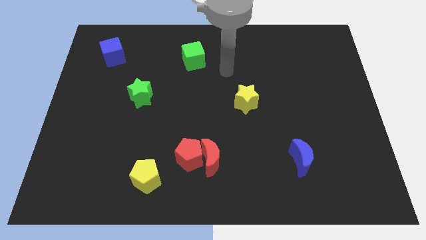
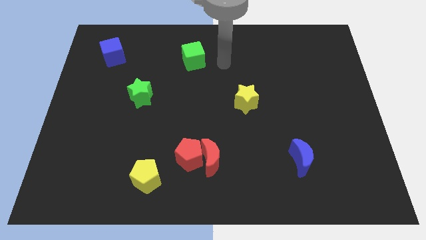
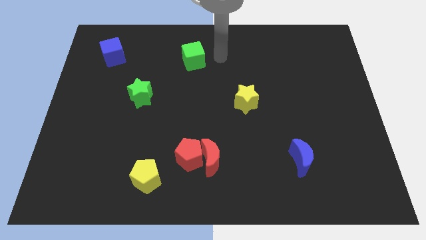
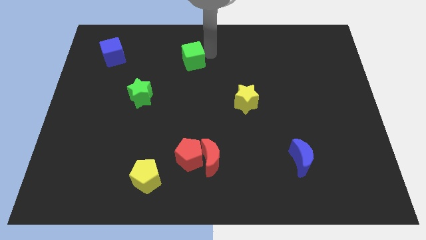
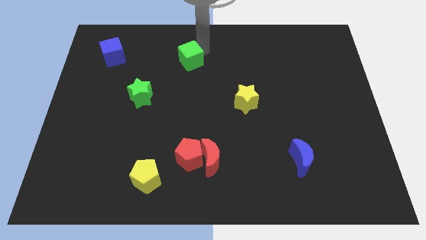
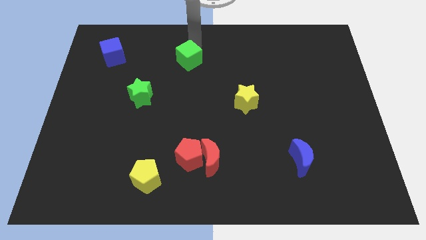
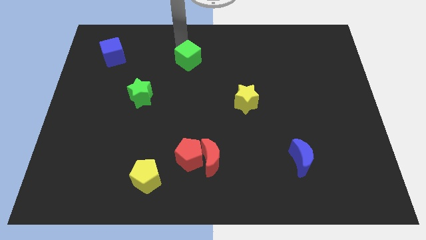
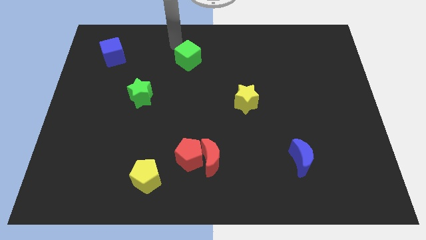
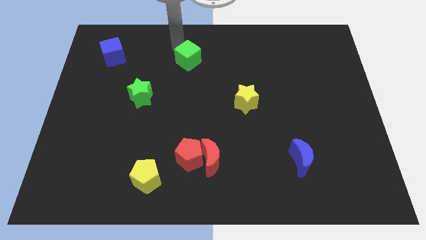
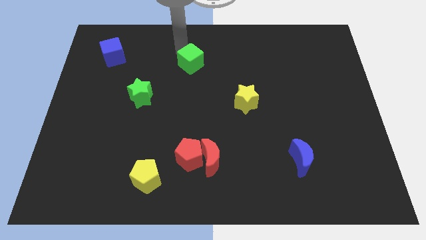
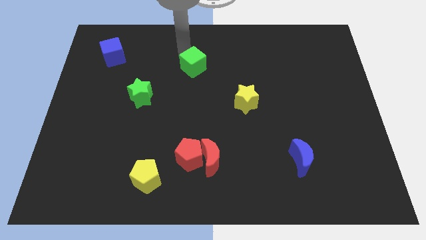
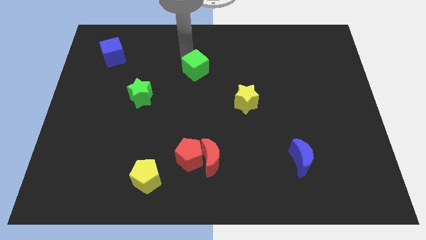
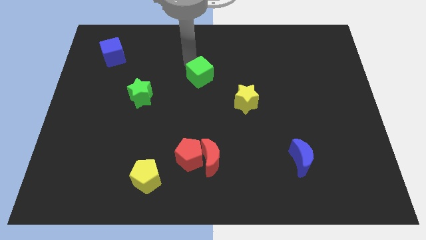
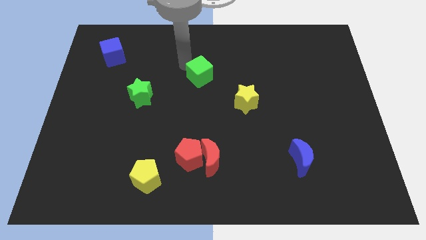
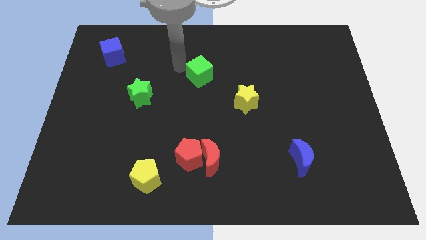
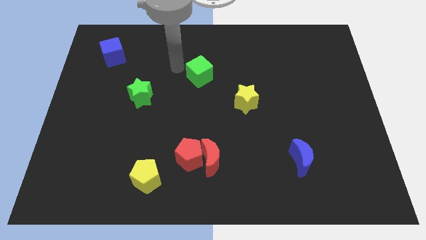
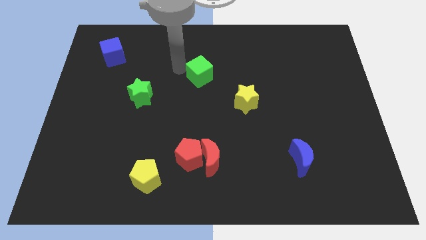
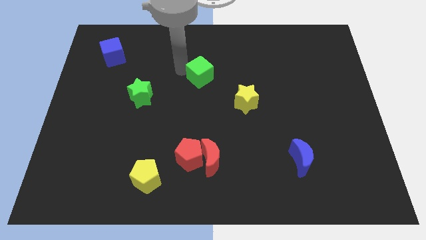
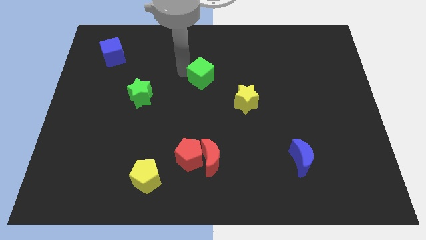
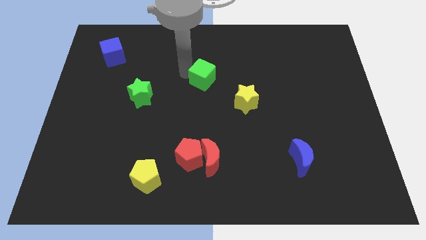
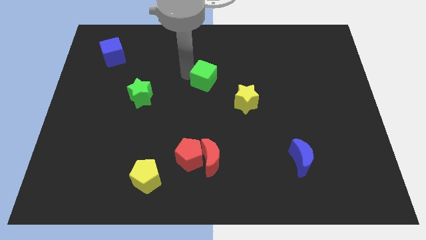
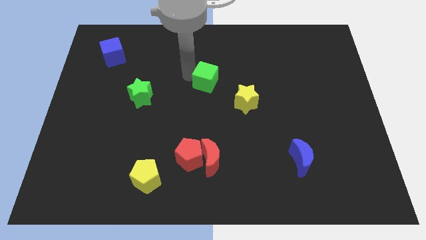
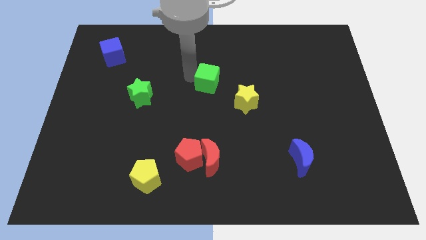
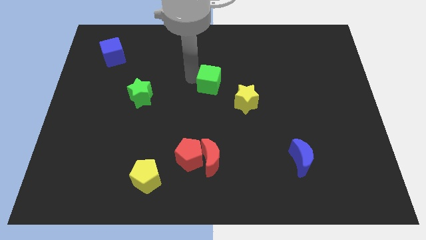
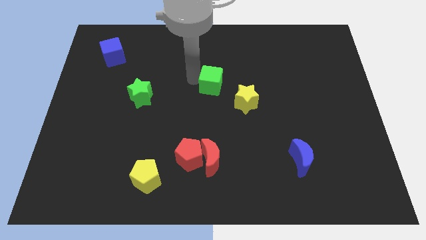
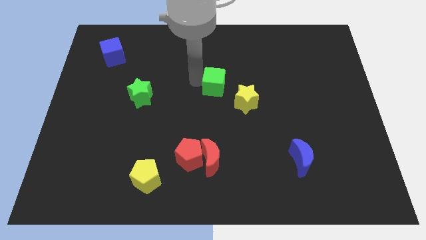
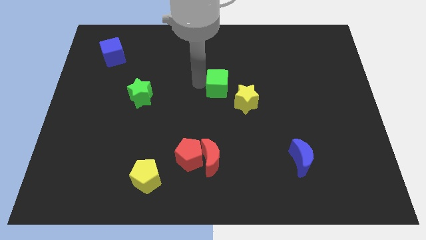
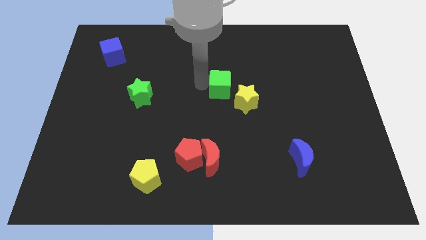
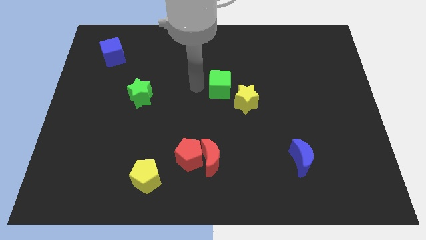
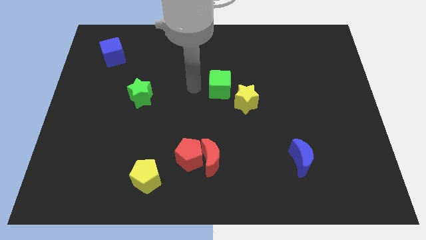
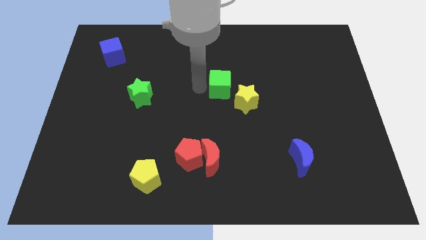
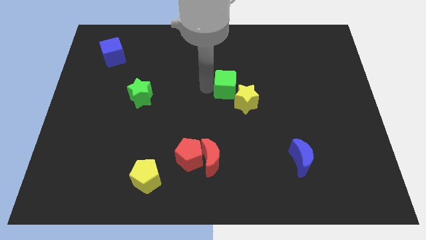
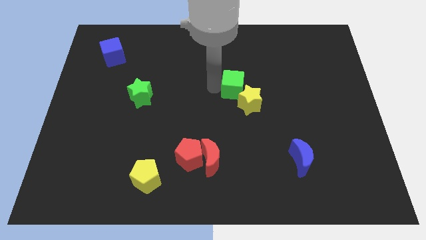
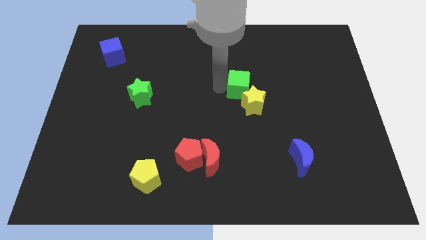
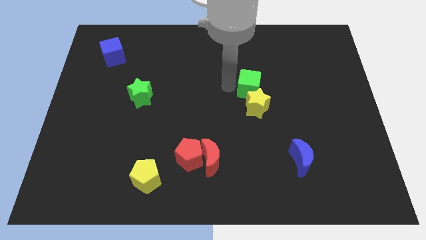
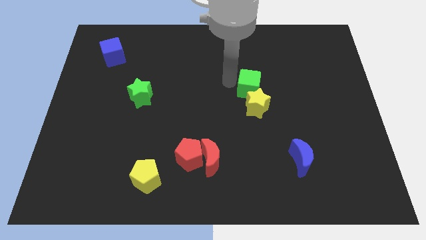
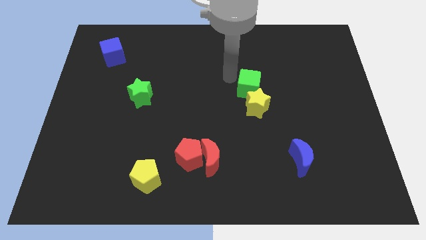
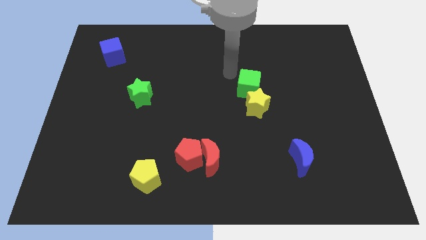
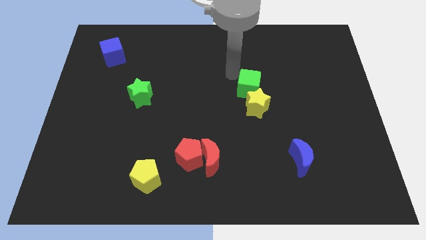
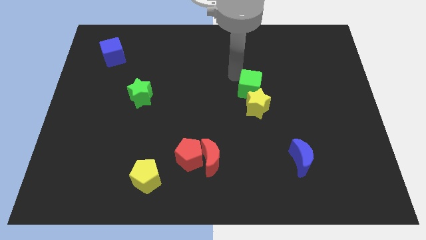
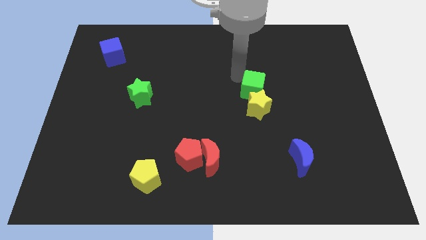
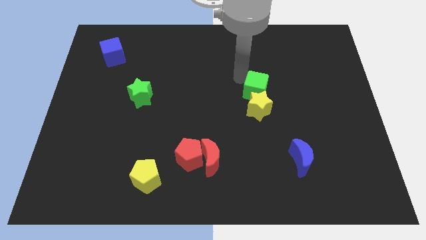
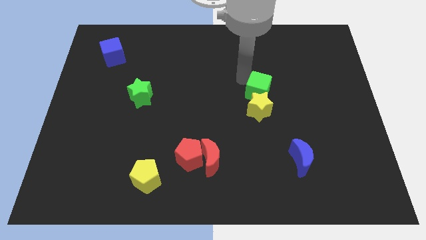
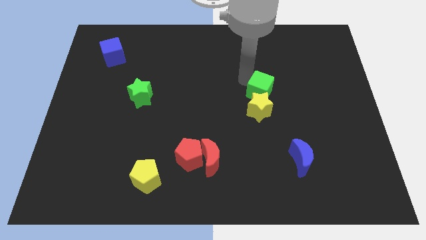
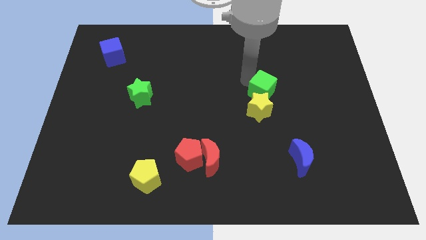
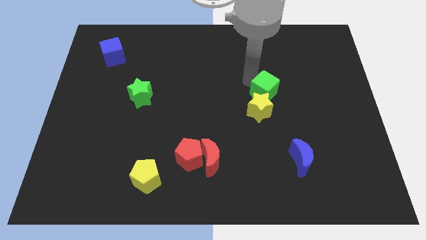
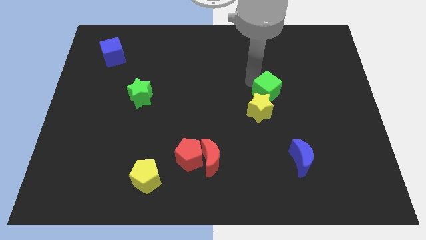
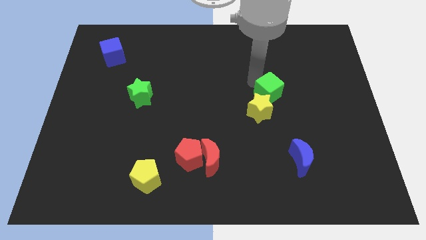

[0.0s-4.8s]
slide the green cube down and then to the right

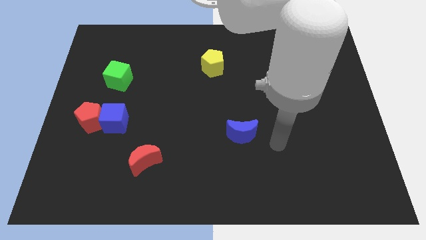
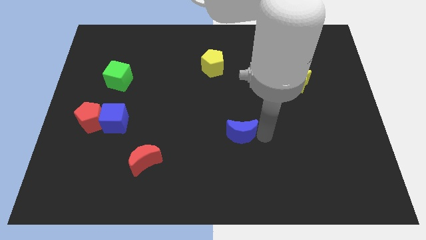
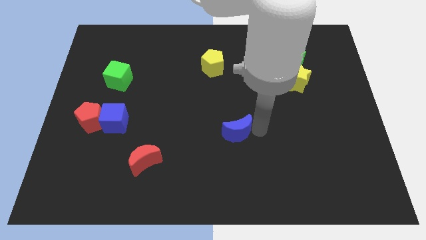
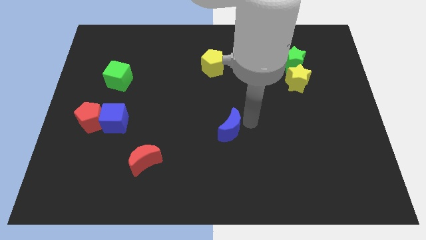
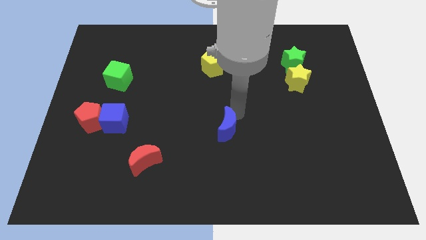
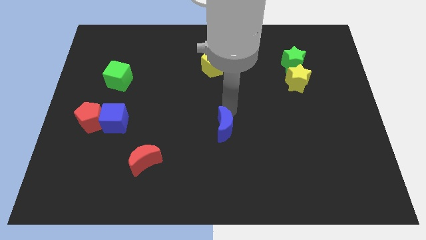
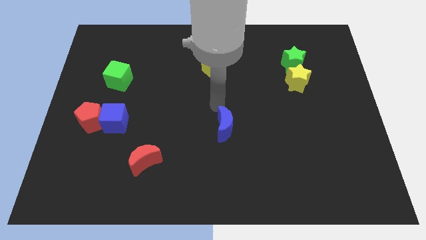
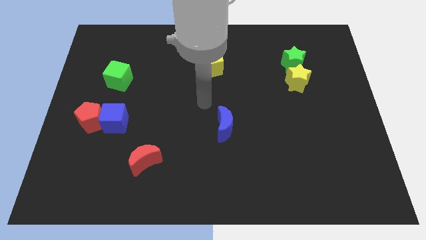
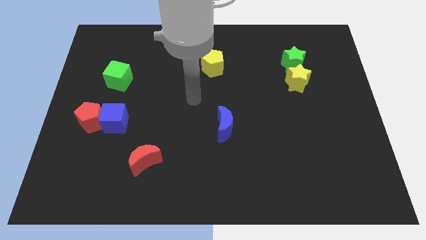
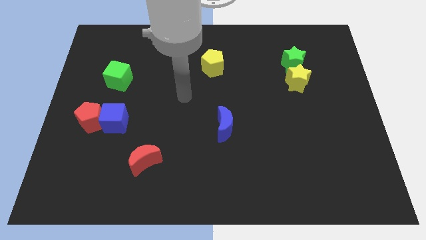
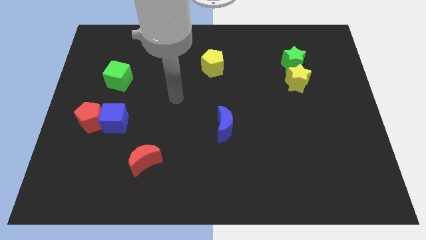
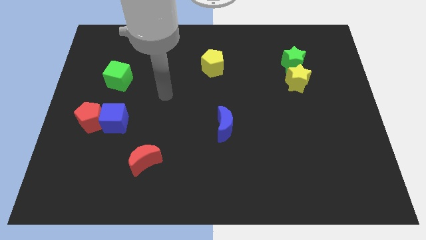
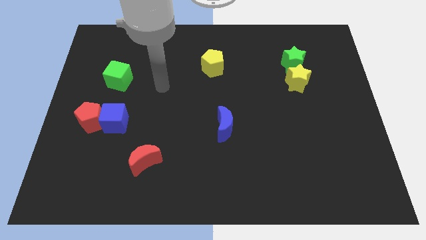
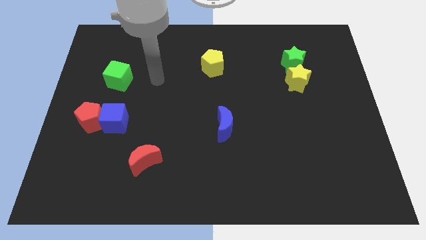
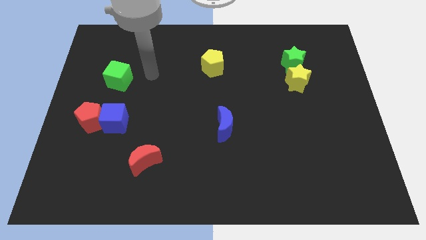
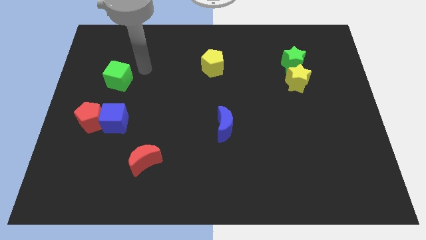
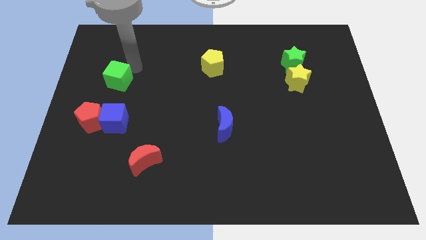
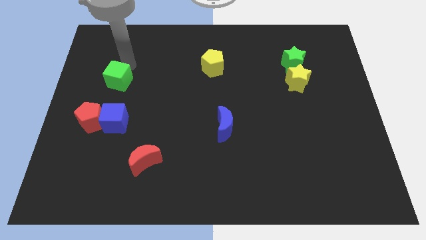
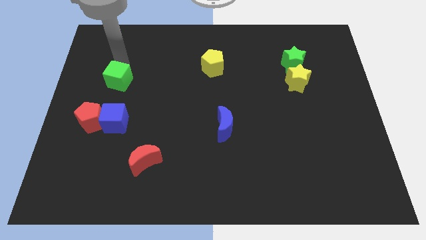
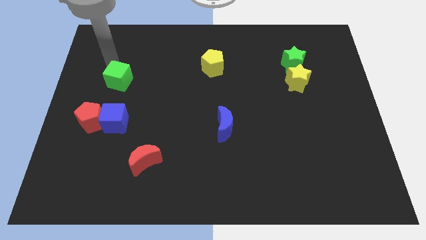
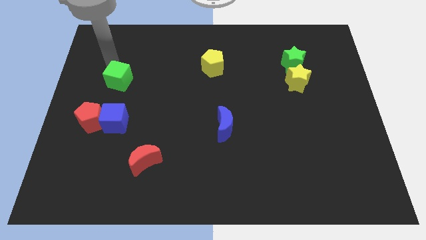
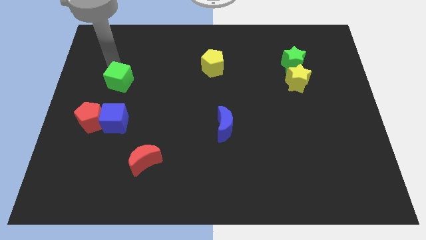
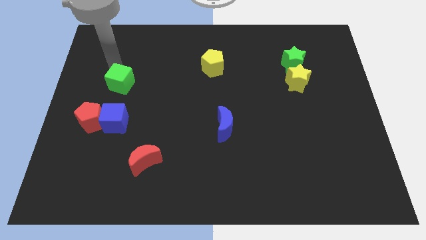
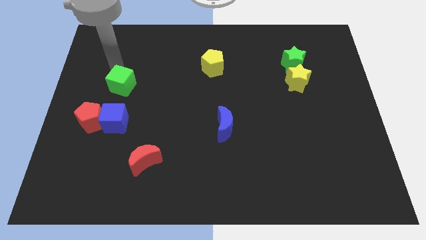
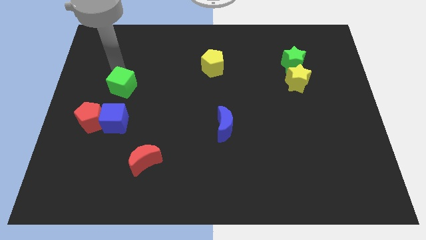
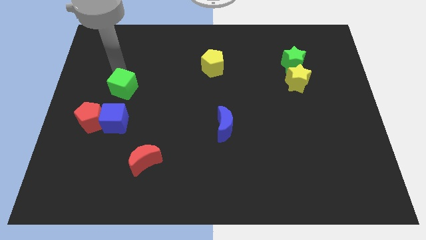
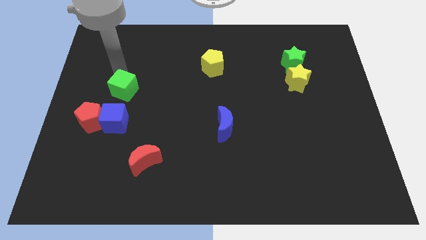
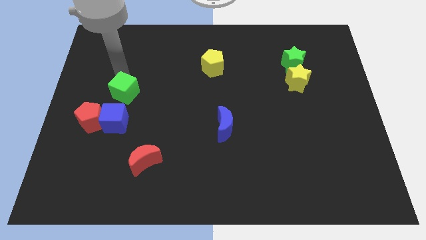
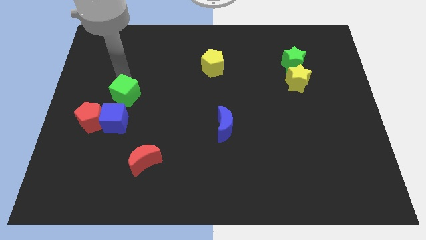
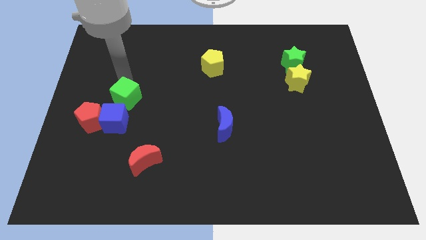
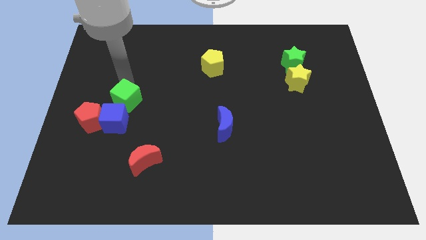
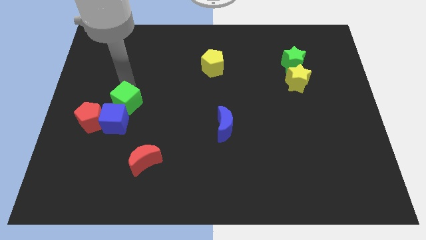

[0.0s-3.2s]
slightly move the green cube down
